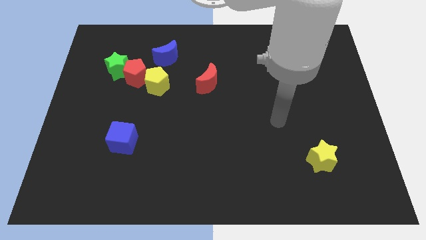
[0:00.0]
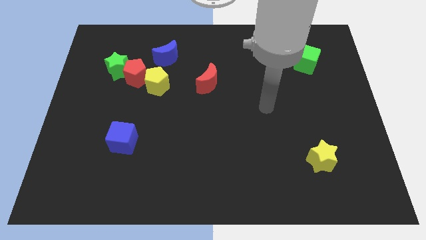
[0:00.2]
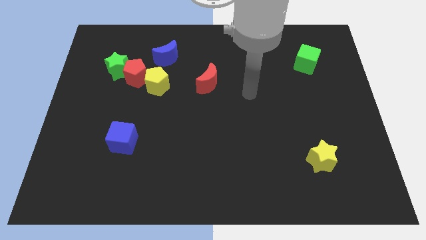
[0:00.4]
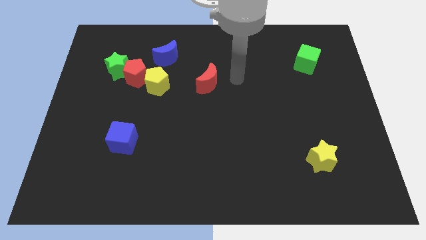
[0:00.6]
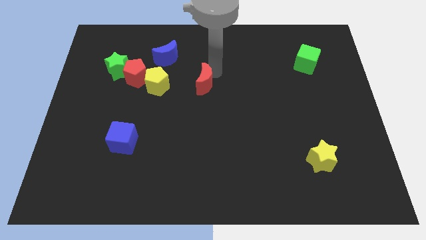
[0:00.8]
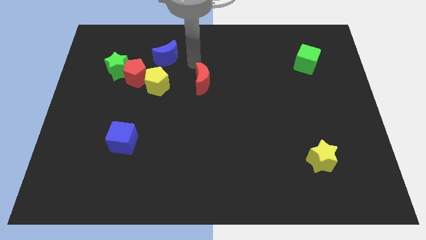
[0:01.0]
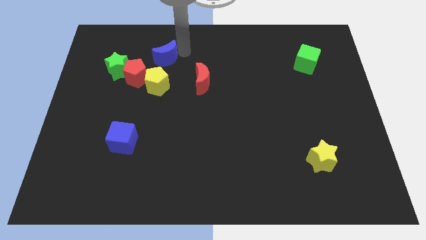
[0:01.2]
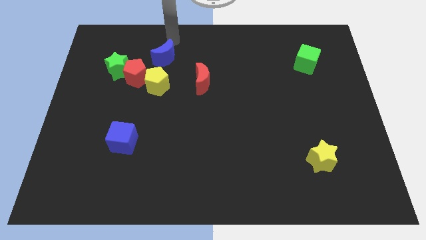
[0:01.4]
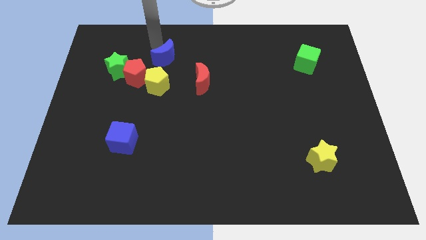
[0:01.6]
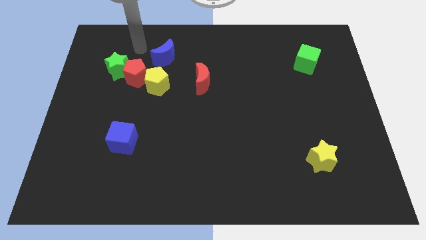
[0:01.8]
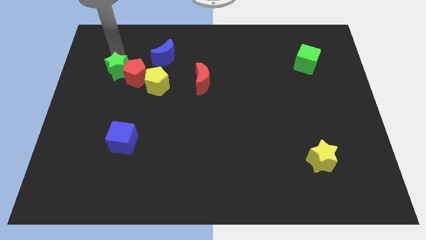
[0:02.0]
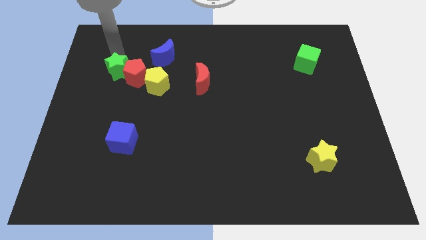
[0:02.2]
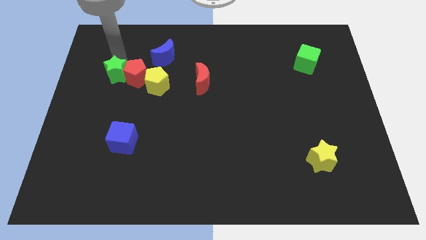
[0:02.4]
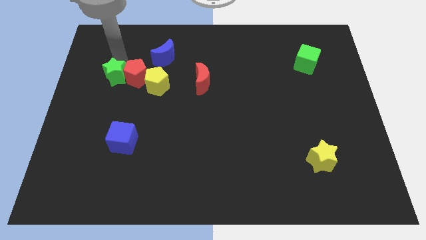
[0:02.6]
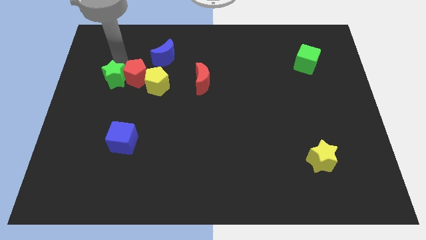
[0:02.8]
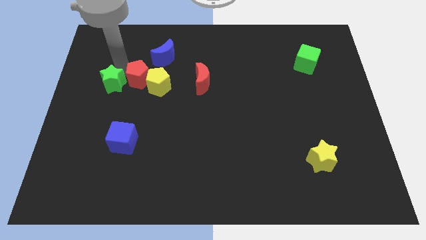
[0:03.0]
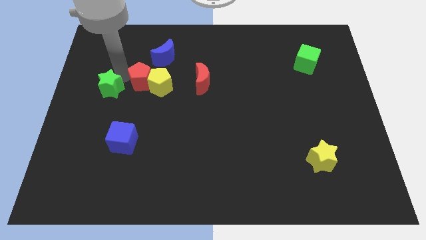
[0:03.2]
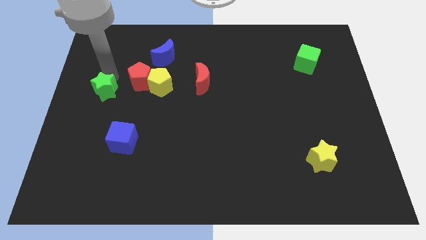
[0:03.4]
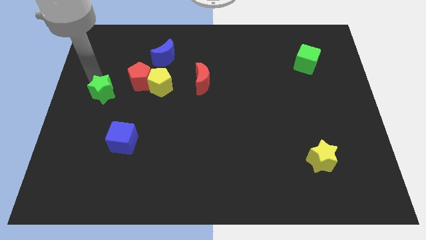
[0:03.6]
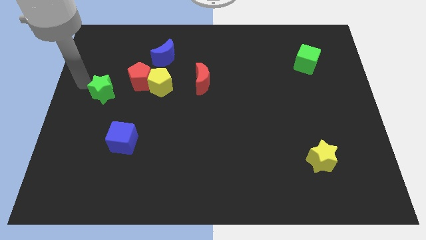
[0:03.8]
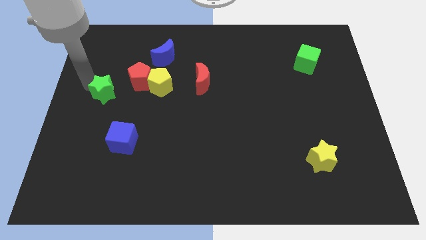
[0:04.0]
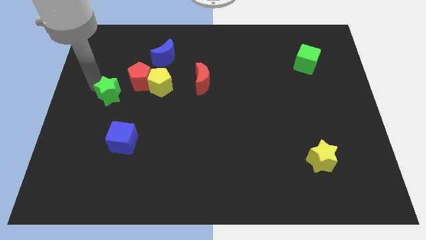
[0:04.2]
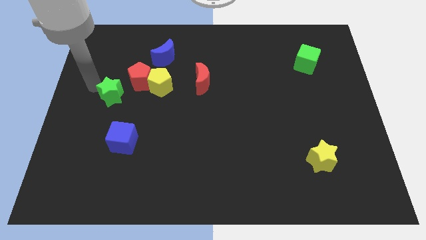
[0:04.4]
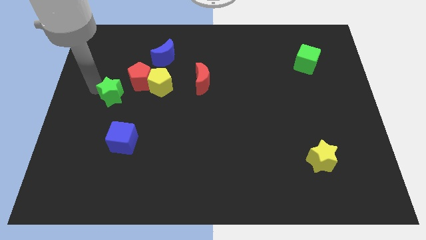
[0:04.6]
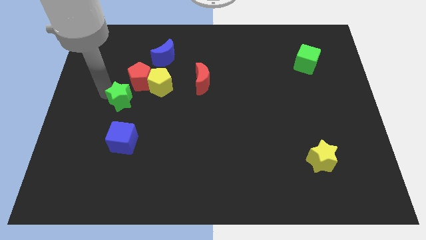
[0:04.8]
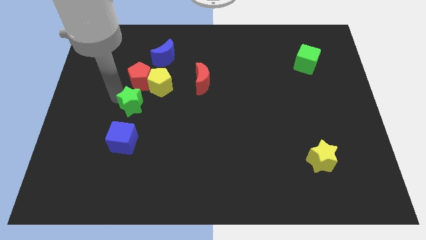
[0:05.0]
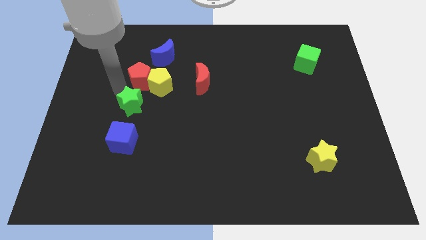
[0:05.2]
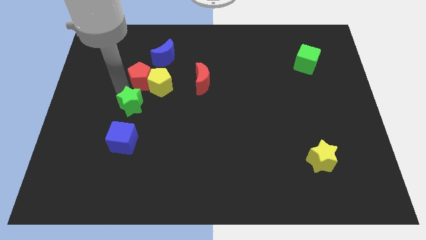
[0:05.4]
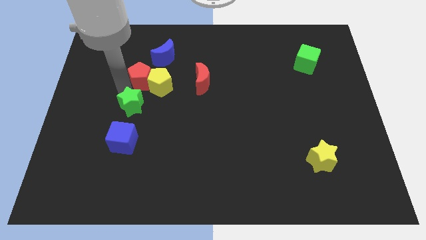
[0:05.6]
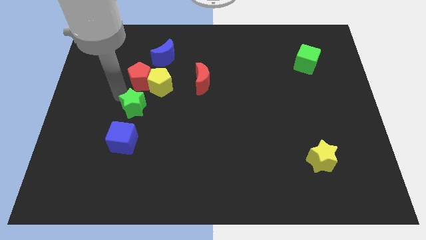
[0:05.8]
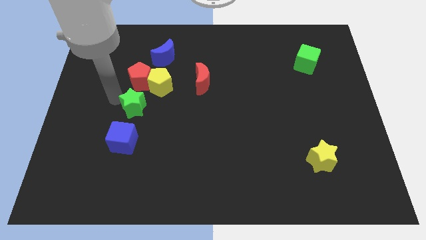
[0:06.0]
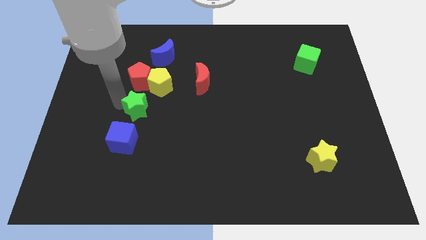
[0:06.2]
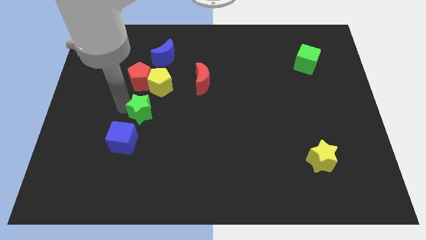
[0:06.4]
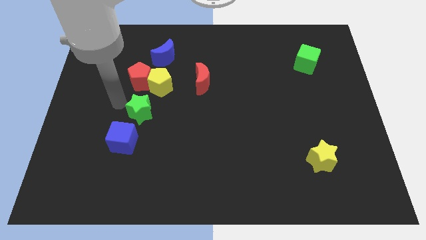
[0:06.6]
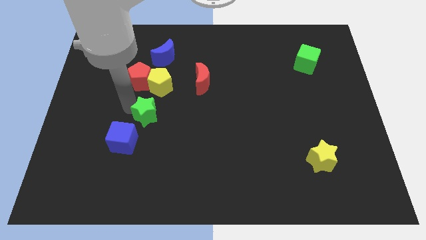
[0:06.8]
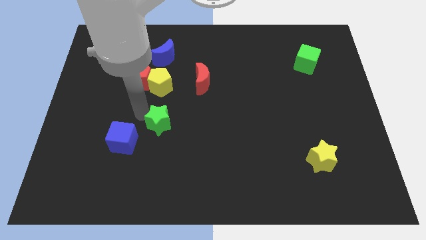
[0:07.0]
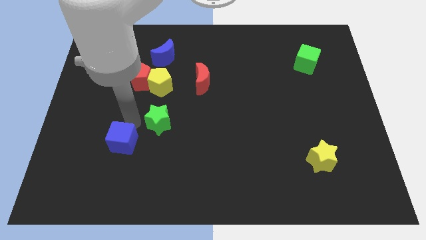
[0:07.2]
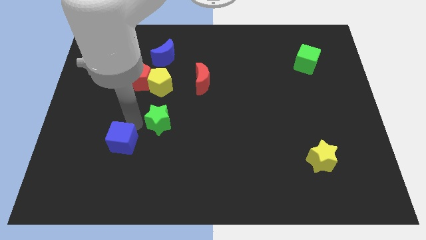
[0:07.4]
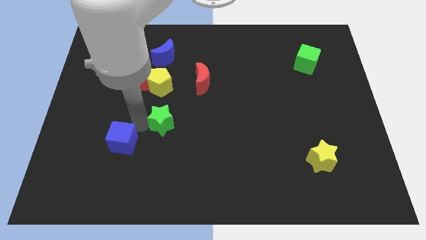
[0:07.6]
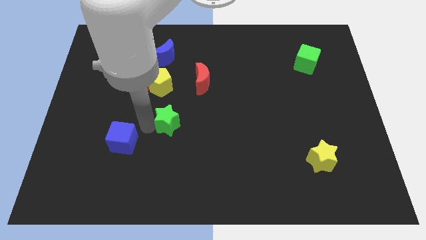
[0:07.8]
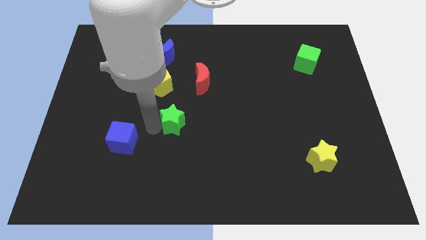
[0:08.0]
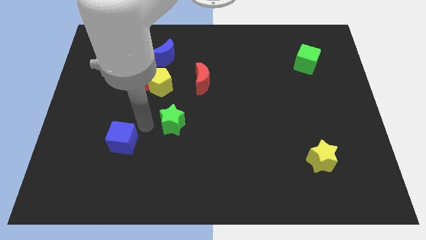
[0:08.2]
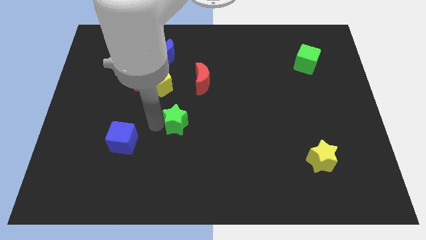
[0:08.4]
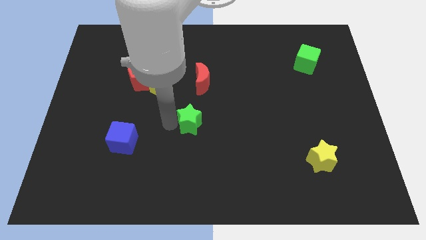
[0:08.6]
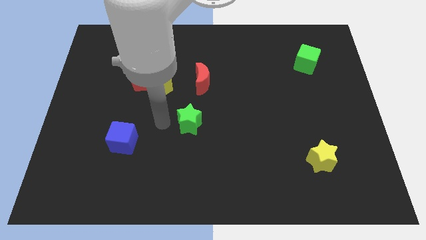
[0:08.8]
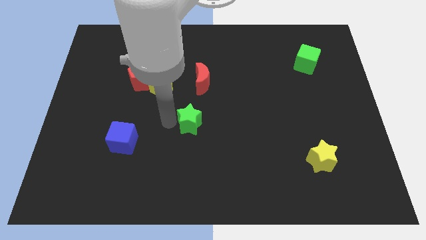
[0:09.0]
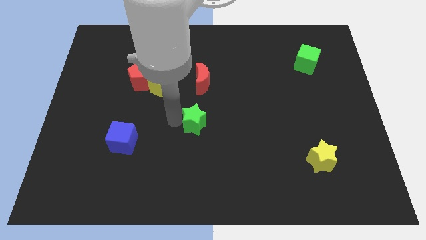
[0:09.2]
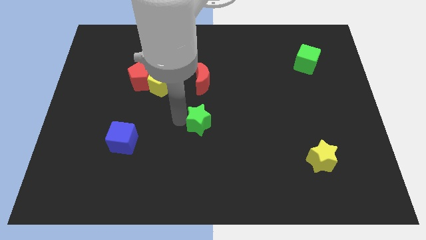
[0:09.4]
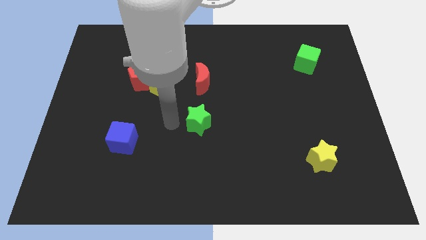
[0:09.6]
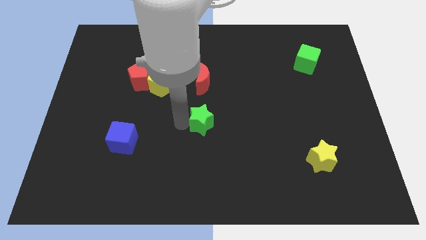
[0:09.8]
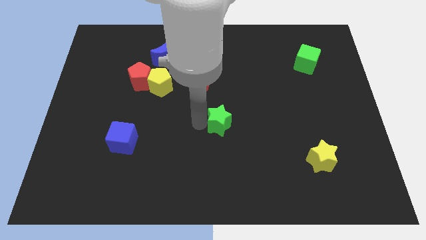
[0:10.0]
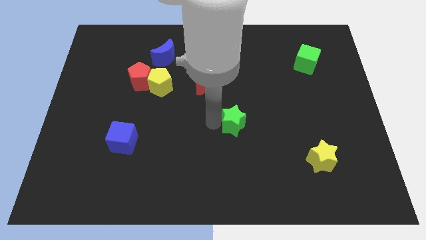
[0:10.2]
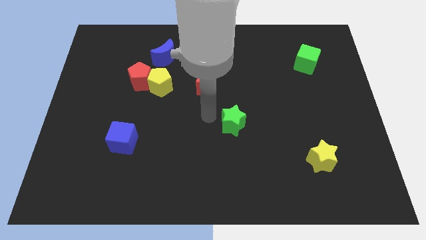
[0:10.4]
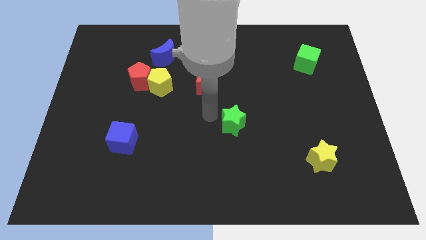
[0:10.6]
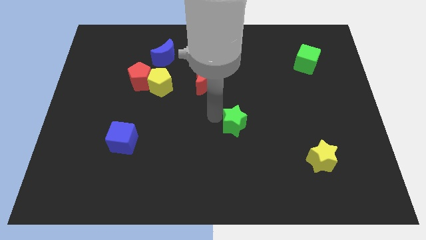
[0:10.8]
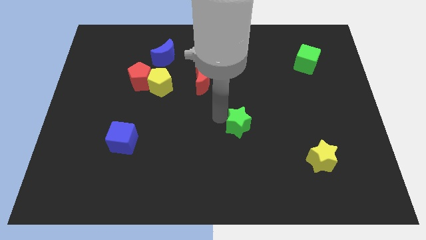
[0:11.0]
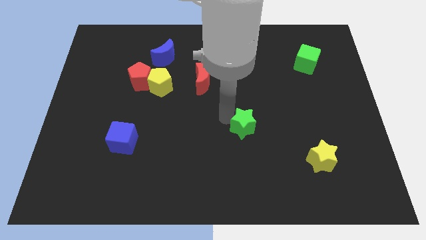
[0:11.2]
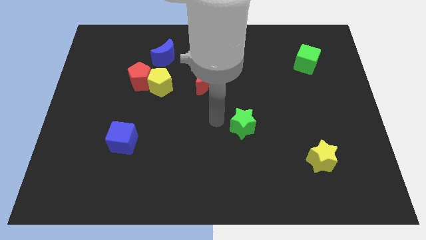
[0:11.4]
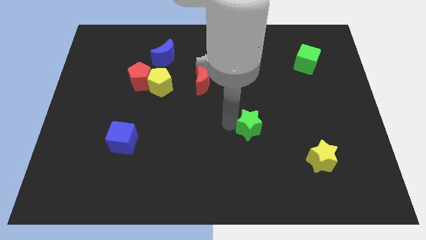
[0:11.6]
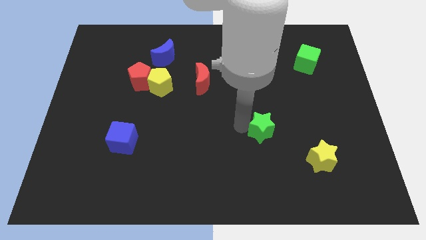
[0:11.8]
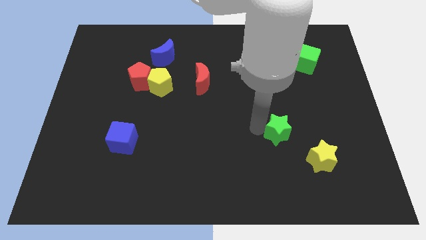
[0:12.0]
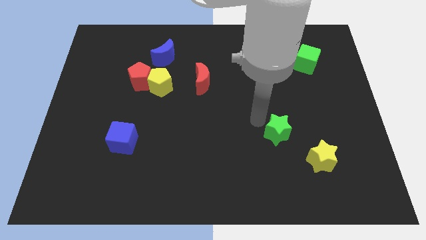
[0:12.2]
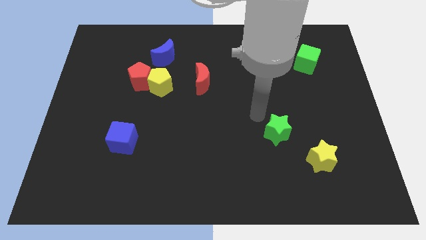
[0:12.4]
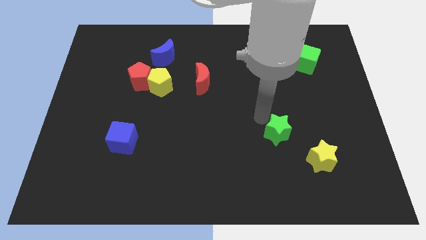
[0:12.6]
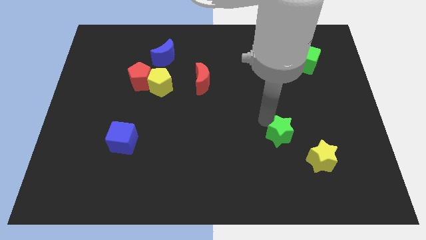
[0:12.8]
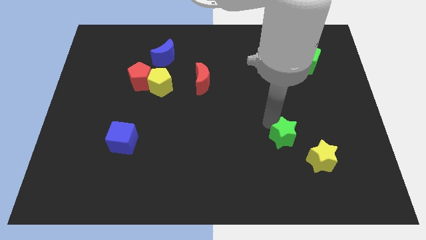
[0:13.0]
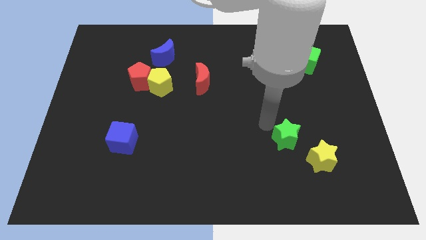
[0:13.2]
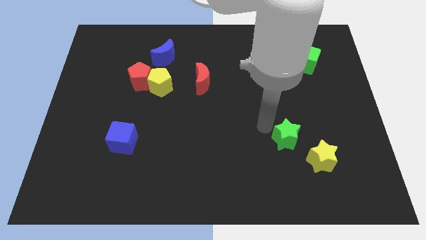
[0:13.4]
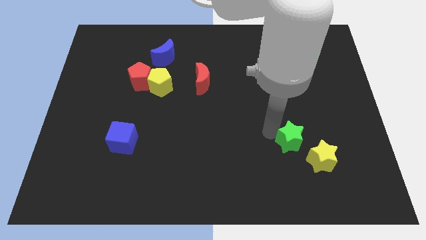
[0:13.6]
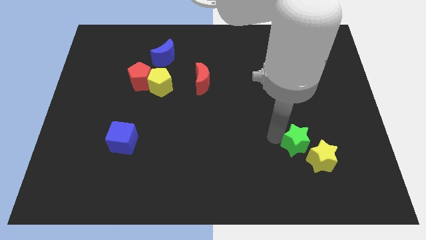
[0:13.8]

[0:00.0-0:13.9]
move the green star to the yellow star
